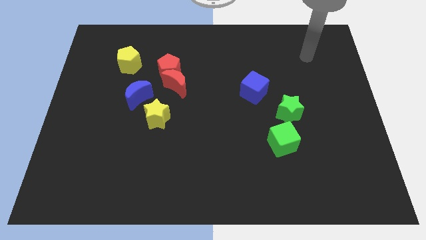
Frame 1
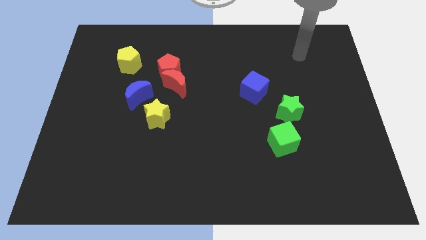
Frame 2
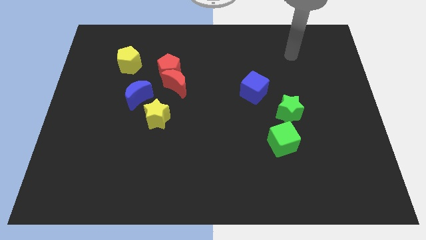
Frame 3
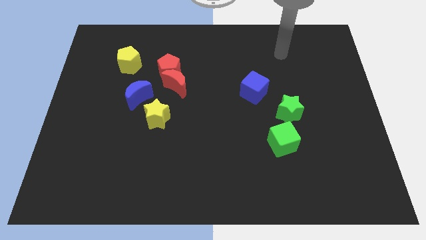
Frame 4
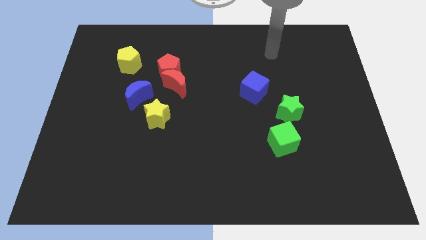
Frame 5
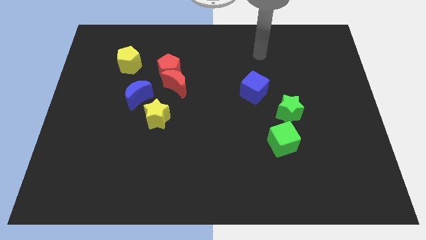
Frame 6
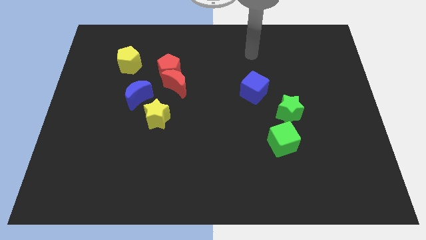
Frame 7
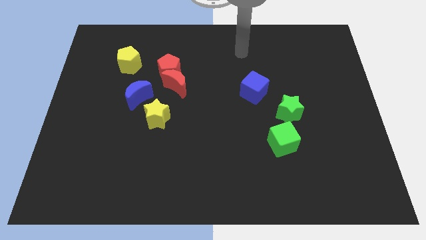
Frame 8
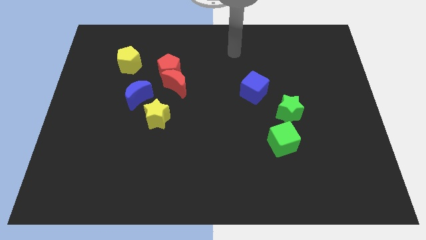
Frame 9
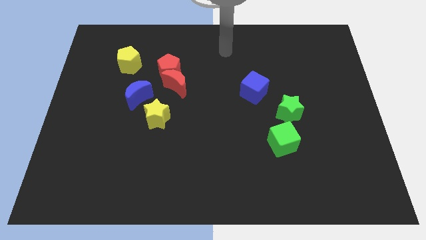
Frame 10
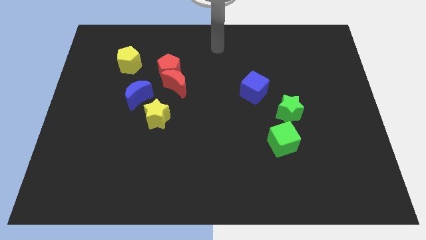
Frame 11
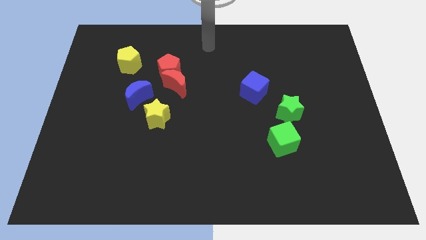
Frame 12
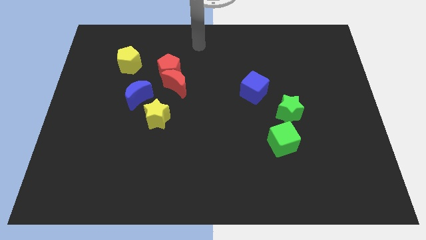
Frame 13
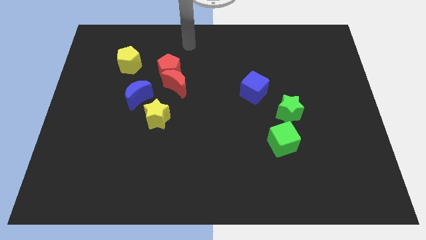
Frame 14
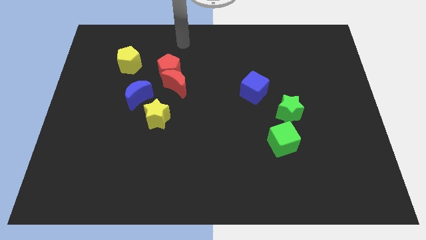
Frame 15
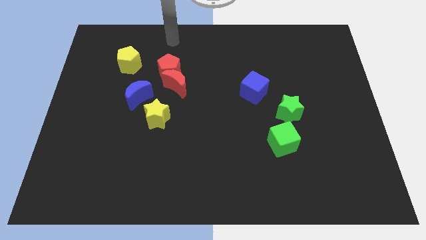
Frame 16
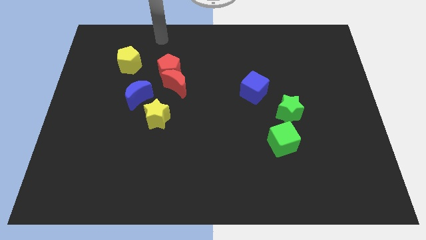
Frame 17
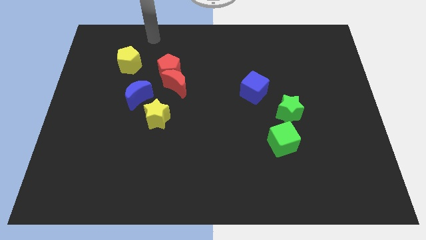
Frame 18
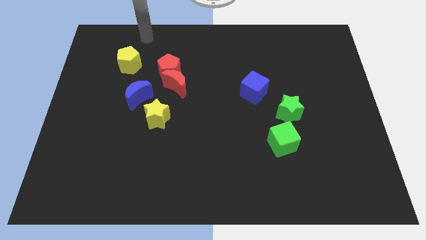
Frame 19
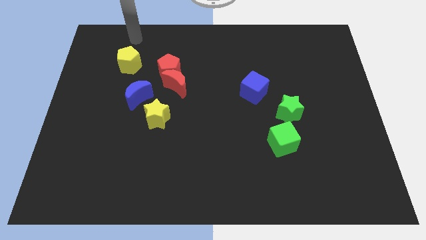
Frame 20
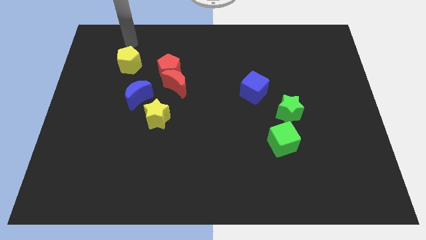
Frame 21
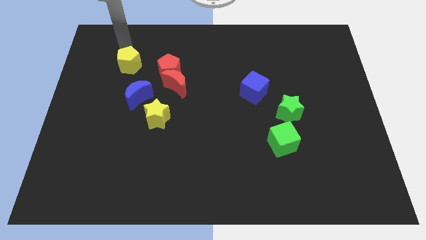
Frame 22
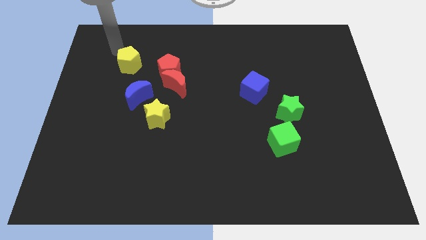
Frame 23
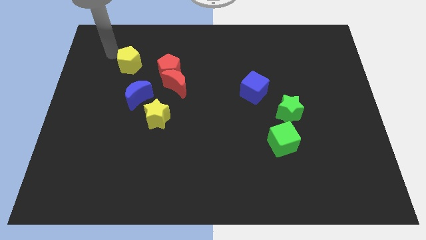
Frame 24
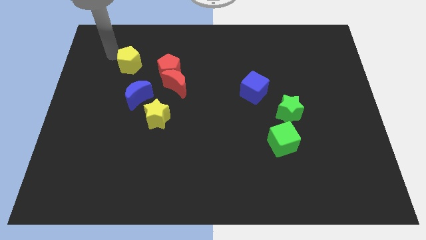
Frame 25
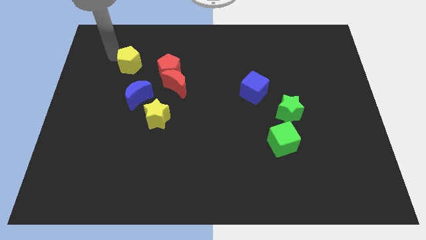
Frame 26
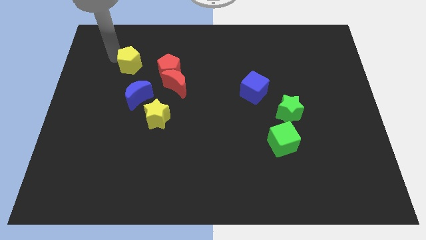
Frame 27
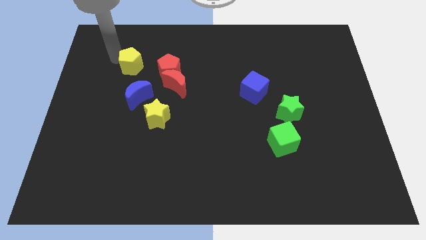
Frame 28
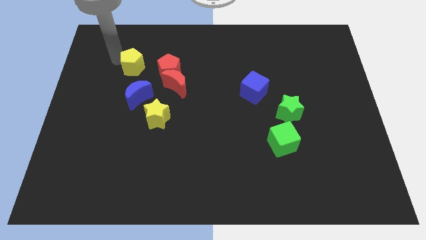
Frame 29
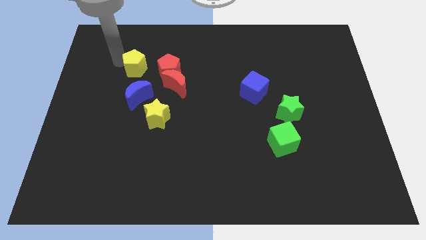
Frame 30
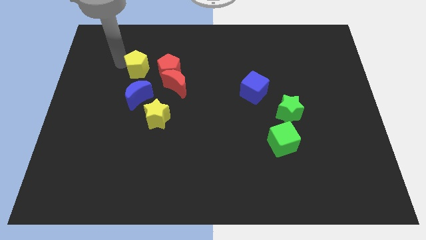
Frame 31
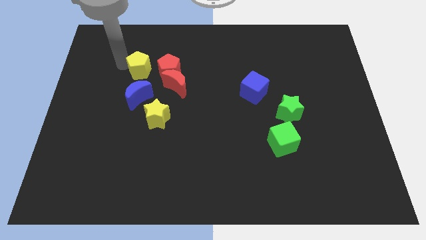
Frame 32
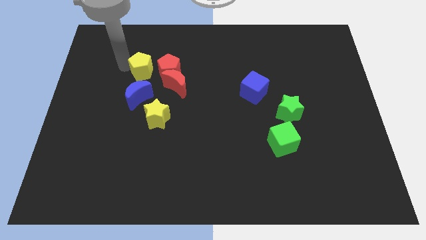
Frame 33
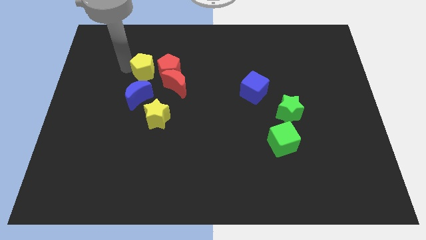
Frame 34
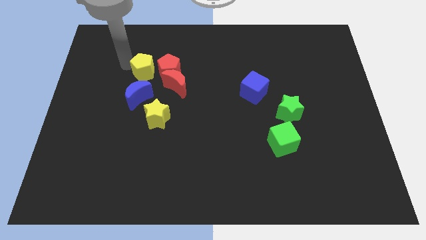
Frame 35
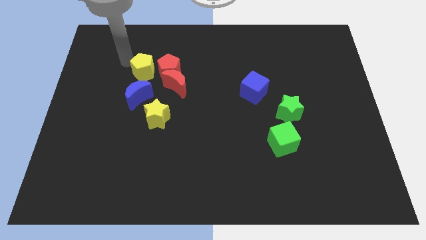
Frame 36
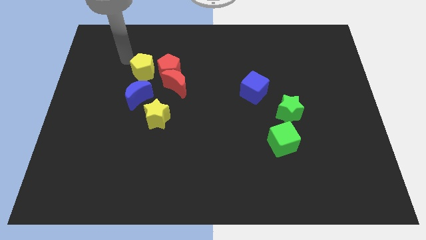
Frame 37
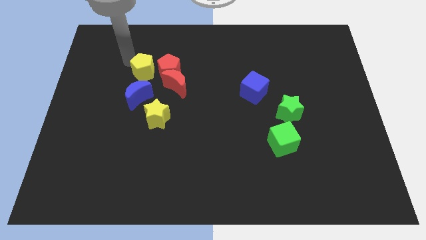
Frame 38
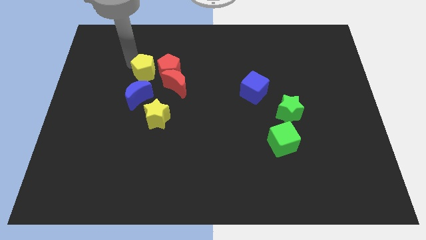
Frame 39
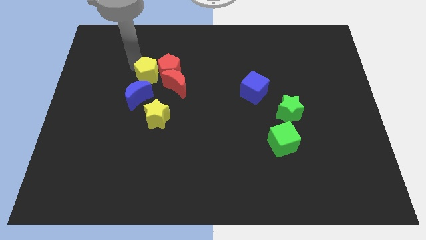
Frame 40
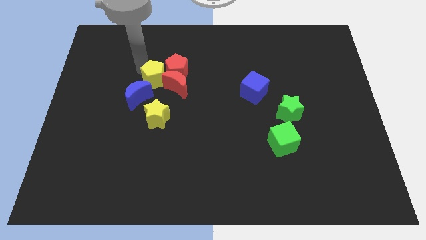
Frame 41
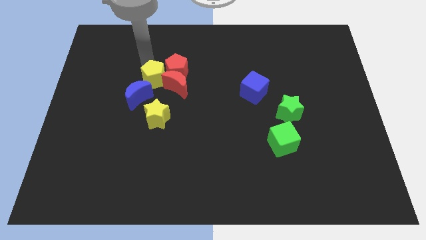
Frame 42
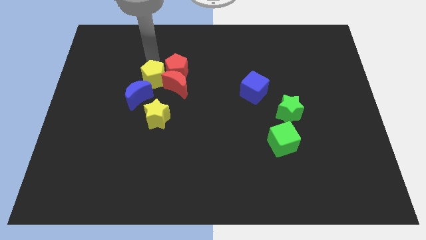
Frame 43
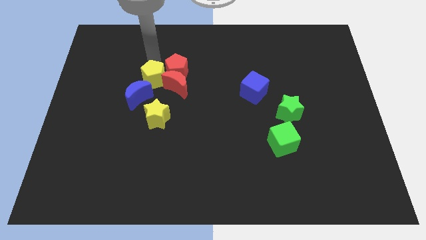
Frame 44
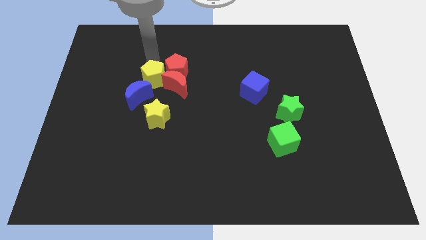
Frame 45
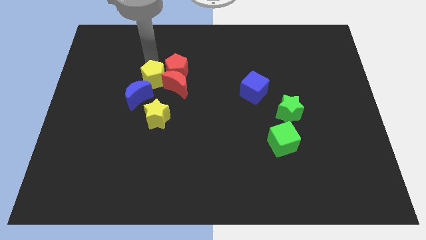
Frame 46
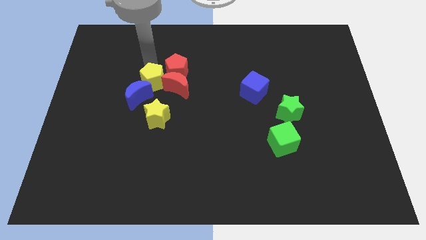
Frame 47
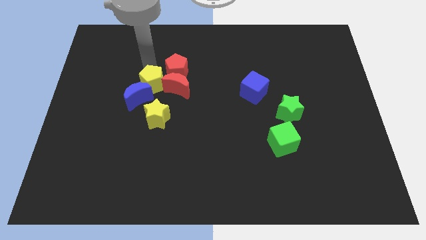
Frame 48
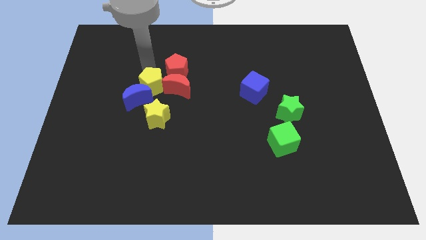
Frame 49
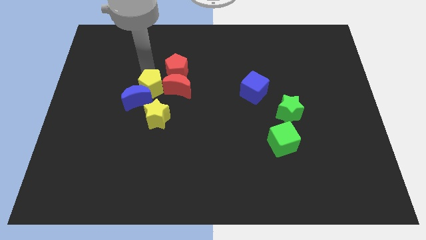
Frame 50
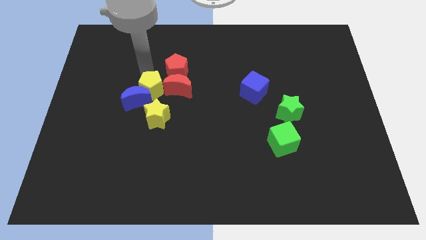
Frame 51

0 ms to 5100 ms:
slide the yellow pentagon to the bottom left side of the red moon

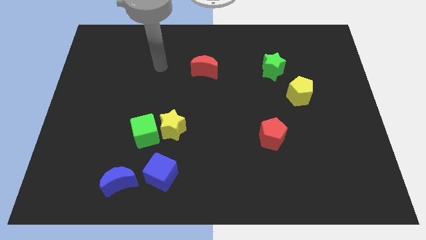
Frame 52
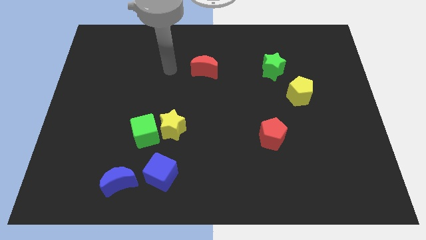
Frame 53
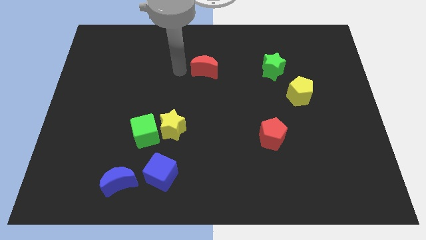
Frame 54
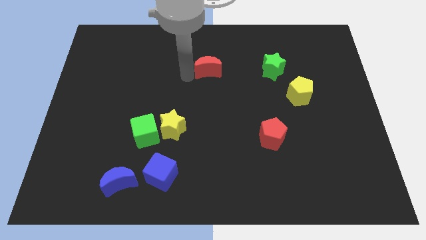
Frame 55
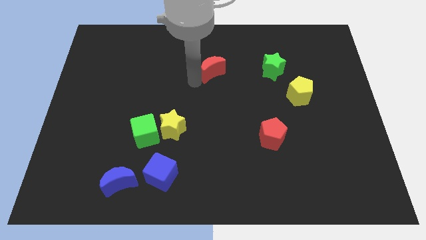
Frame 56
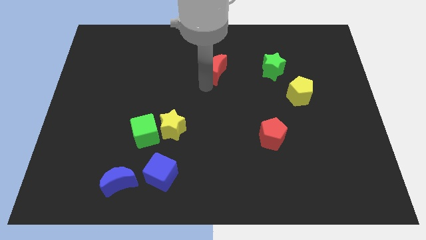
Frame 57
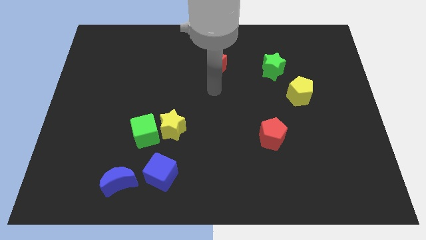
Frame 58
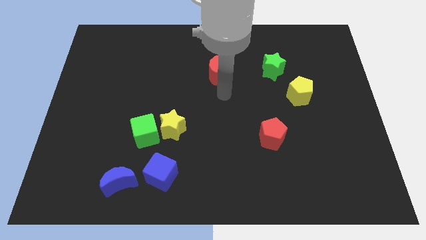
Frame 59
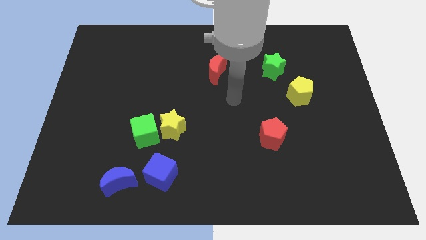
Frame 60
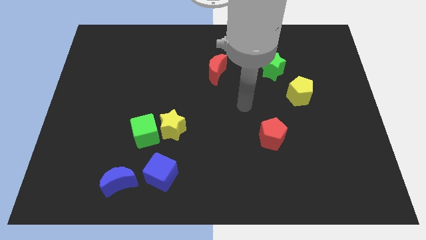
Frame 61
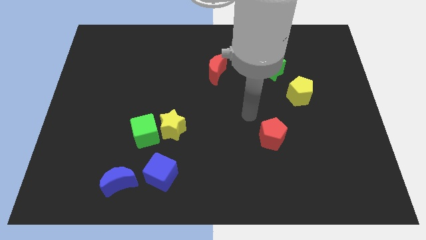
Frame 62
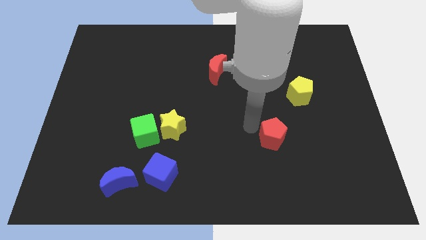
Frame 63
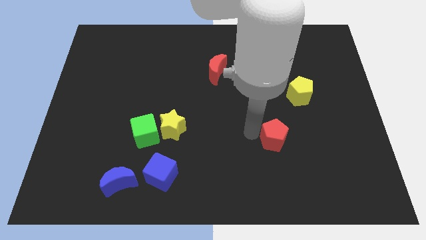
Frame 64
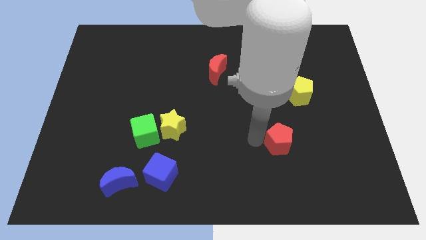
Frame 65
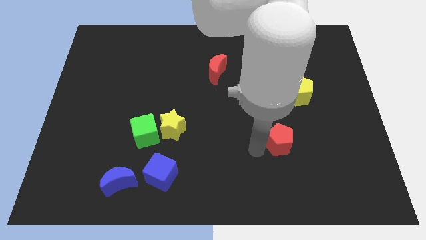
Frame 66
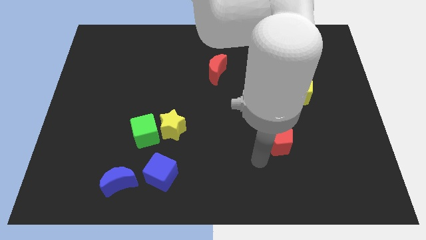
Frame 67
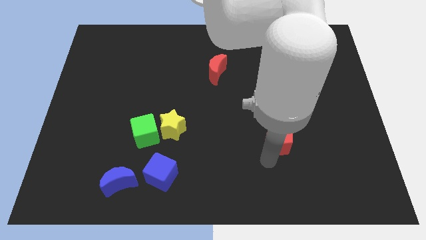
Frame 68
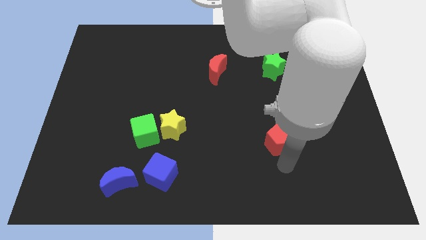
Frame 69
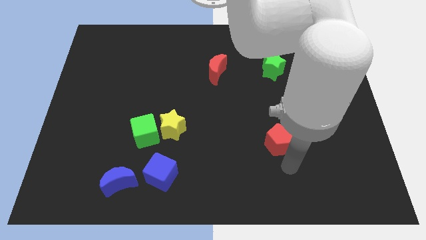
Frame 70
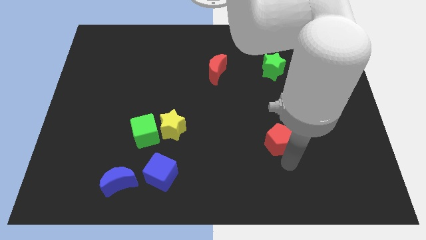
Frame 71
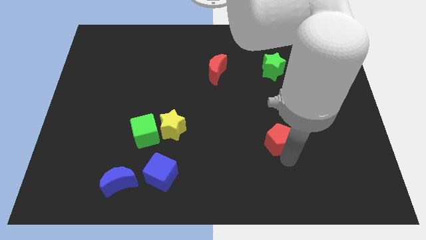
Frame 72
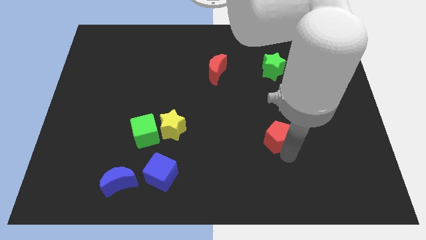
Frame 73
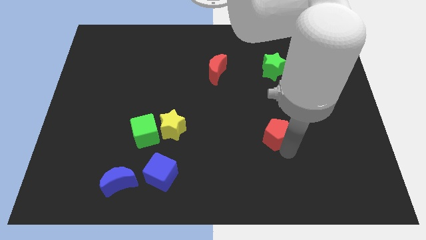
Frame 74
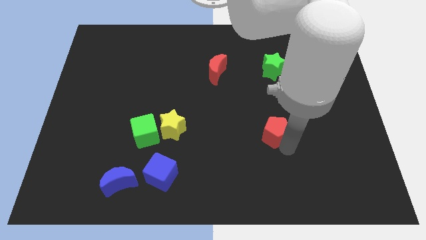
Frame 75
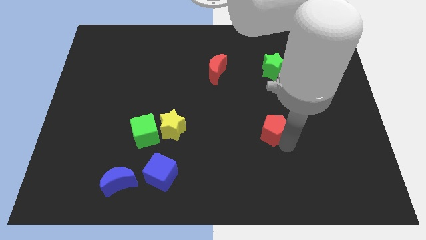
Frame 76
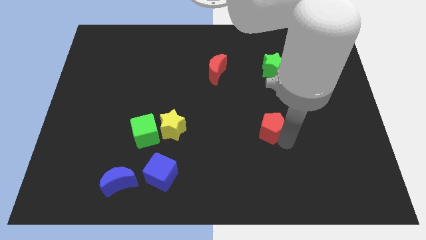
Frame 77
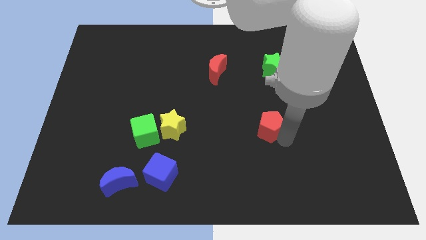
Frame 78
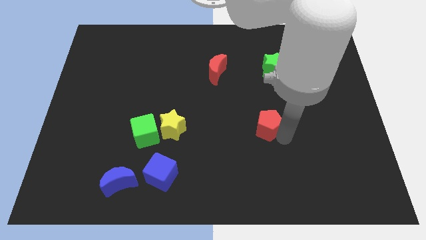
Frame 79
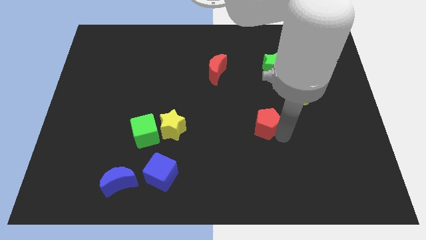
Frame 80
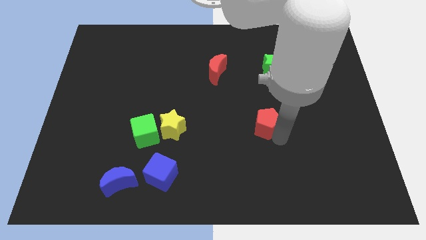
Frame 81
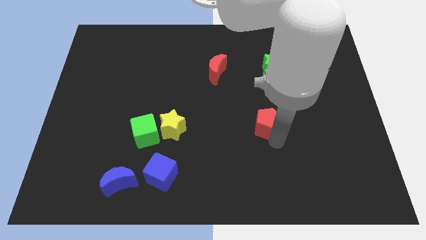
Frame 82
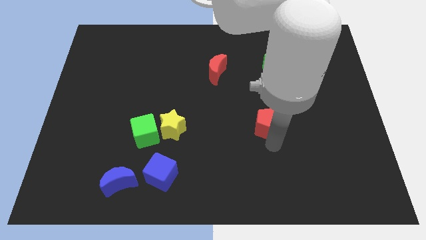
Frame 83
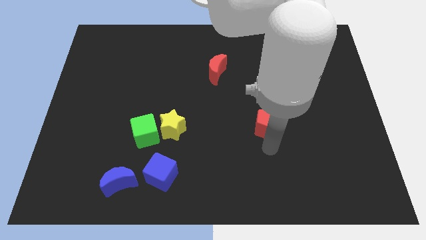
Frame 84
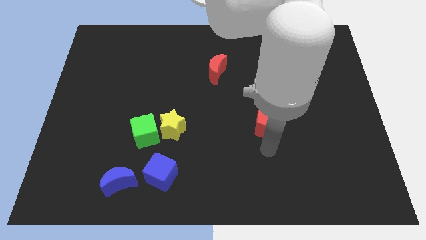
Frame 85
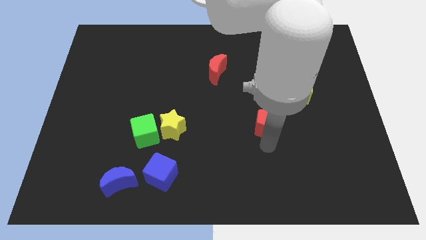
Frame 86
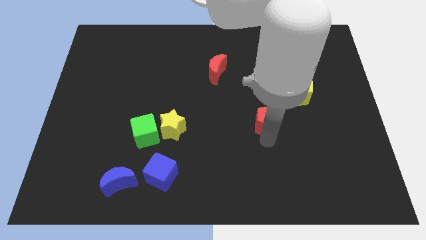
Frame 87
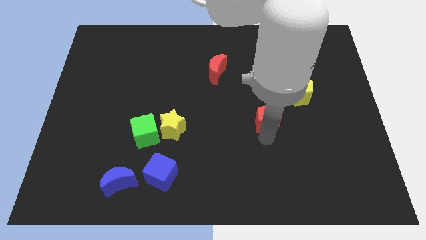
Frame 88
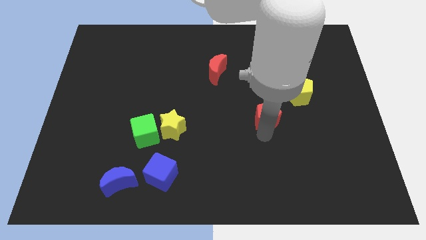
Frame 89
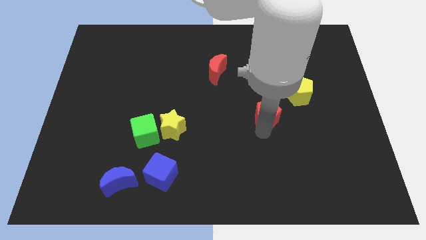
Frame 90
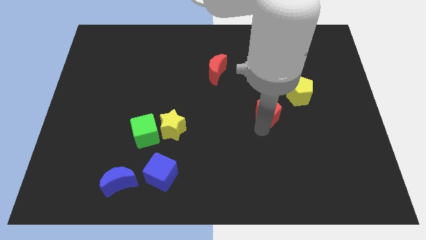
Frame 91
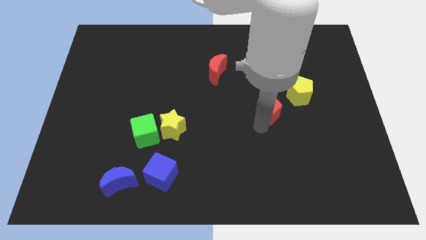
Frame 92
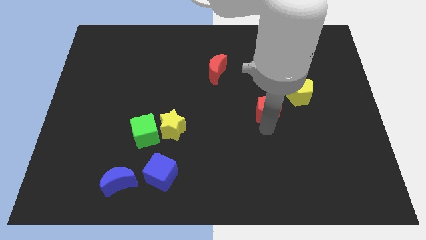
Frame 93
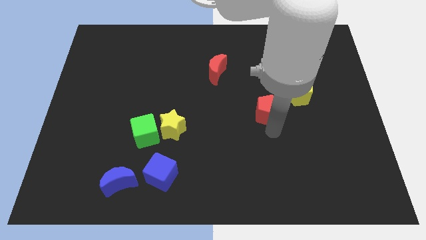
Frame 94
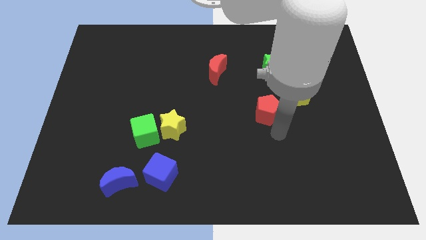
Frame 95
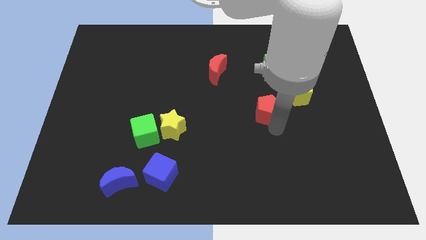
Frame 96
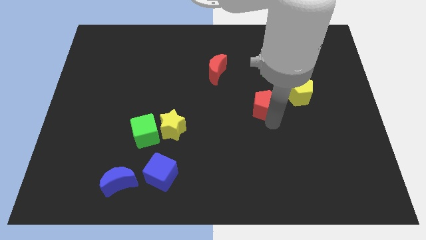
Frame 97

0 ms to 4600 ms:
move the red pentagon to the left side of the yellow pentagon
